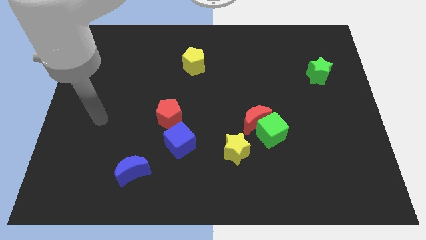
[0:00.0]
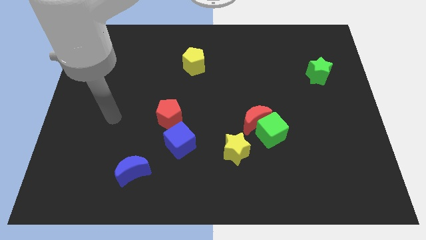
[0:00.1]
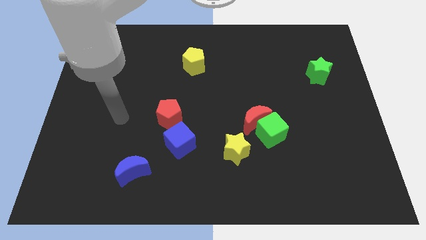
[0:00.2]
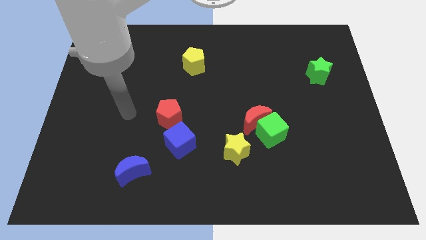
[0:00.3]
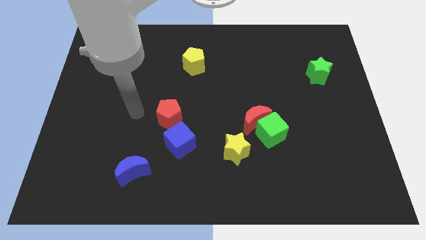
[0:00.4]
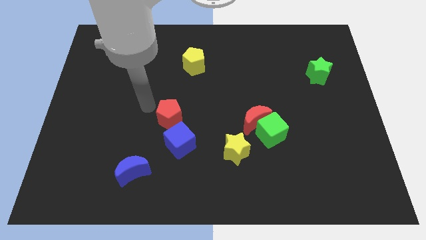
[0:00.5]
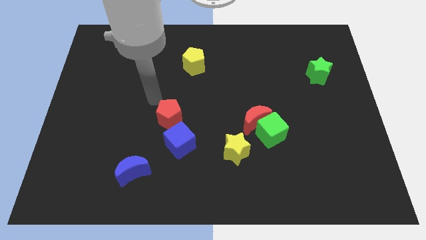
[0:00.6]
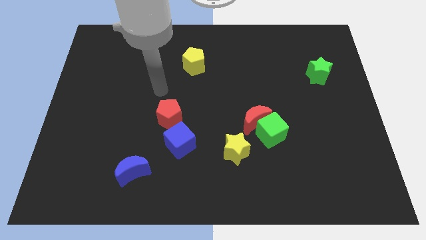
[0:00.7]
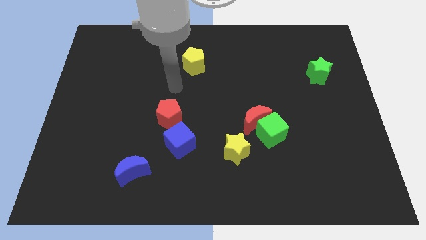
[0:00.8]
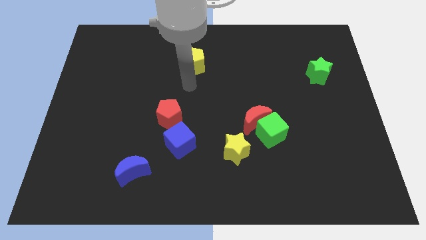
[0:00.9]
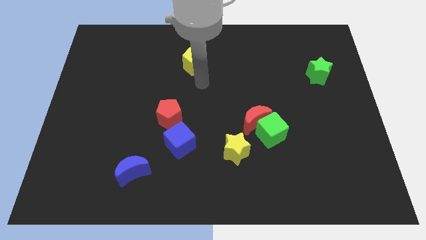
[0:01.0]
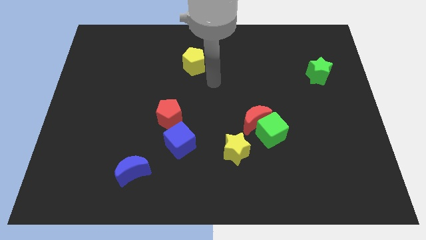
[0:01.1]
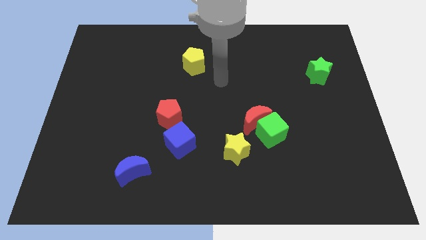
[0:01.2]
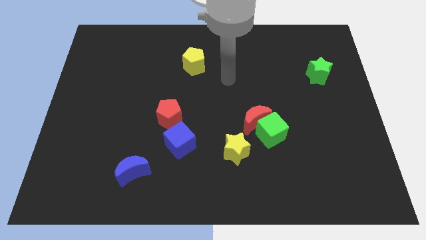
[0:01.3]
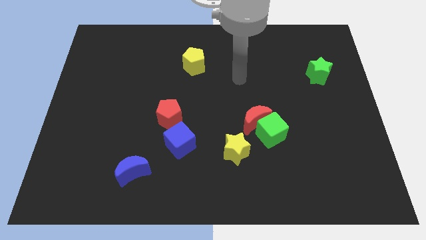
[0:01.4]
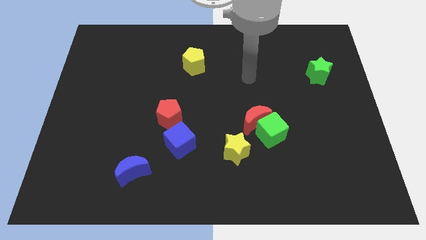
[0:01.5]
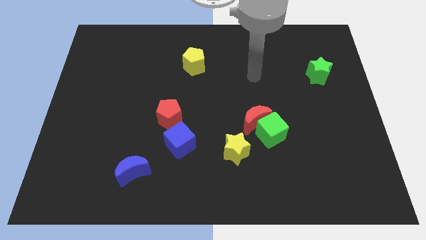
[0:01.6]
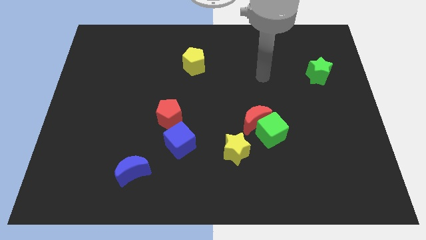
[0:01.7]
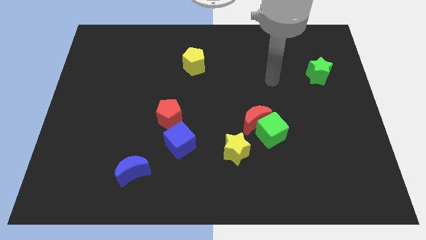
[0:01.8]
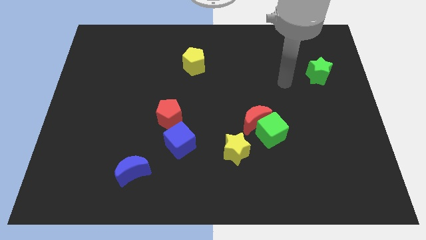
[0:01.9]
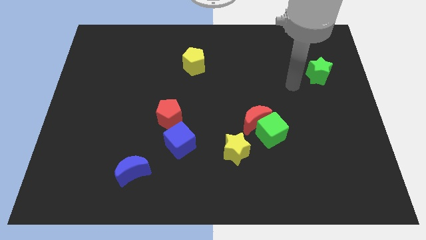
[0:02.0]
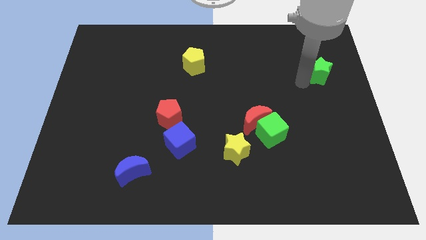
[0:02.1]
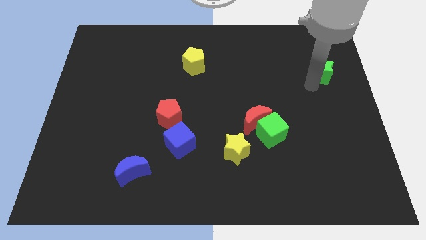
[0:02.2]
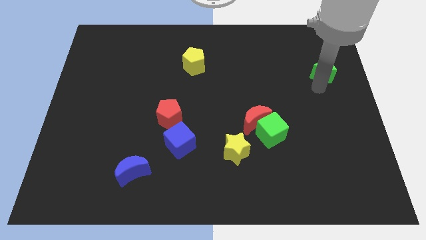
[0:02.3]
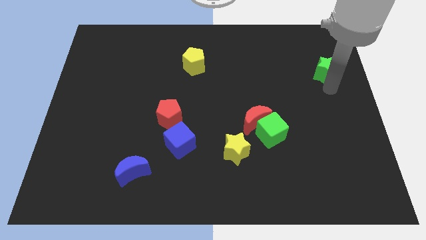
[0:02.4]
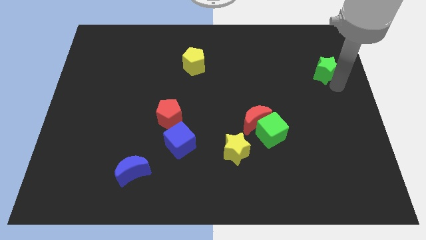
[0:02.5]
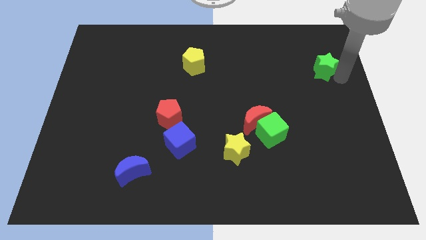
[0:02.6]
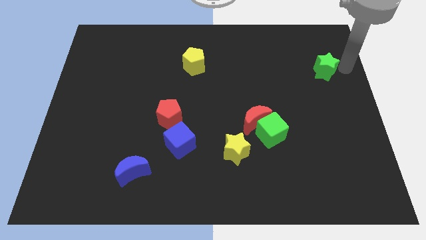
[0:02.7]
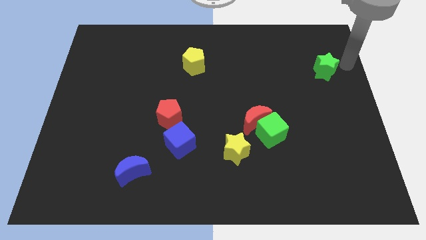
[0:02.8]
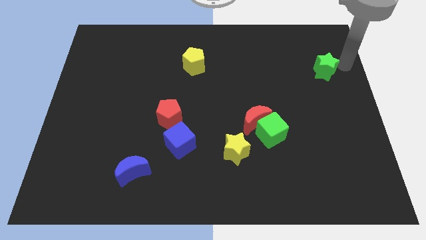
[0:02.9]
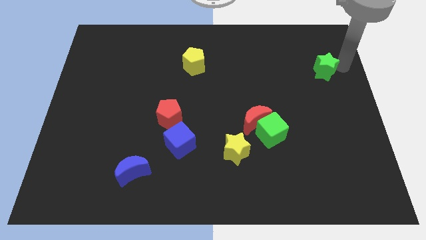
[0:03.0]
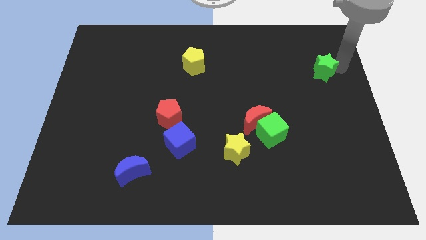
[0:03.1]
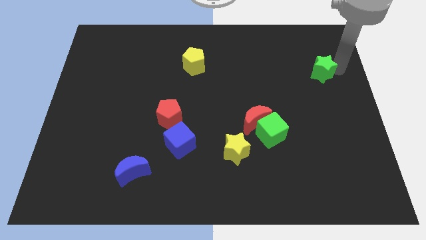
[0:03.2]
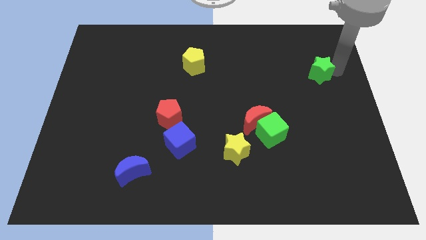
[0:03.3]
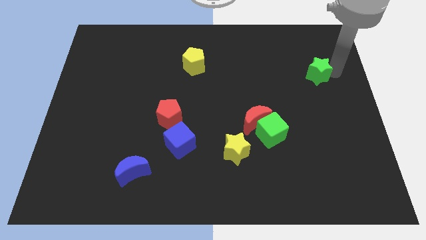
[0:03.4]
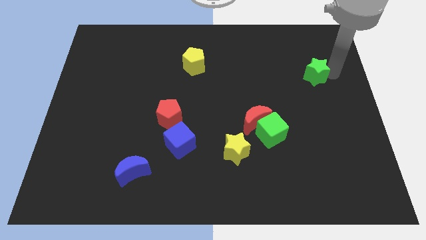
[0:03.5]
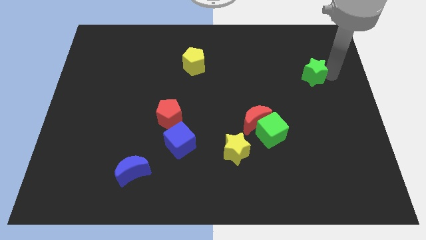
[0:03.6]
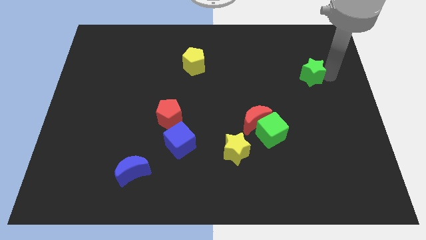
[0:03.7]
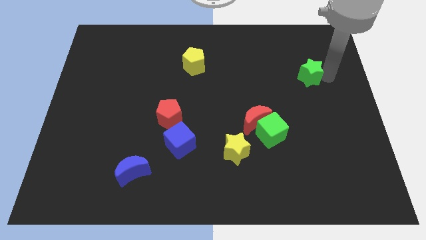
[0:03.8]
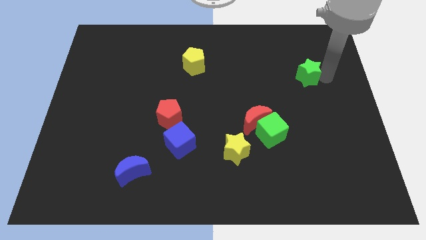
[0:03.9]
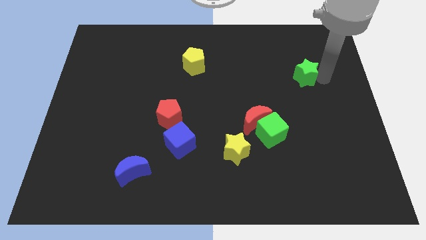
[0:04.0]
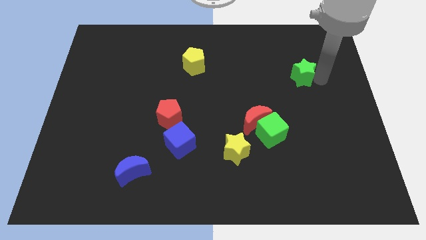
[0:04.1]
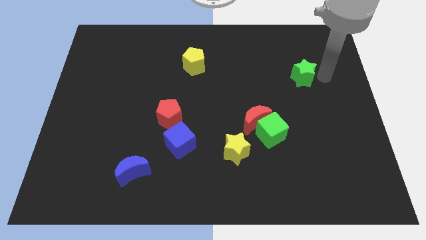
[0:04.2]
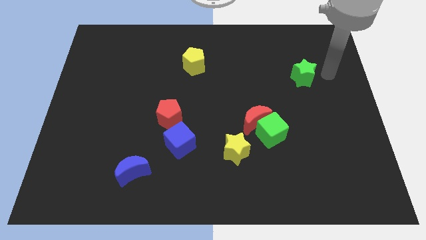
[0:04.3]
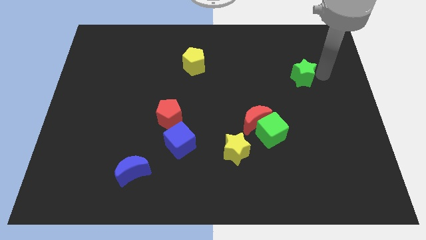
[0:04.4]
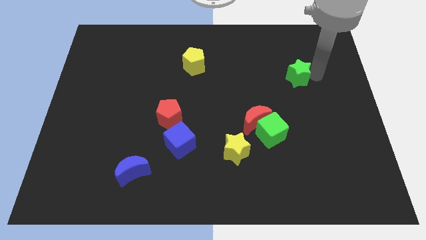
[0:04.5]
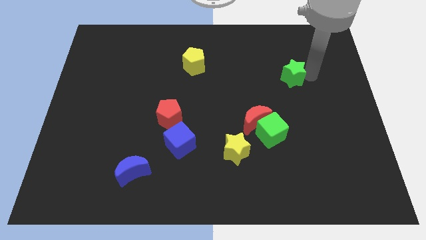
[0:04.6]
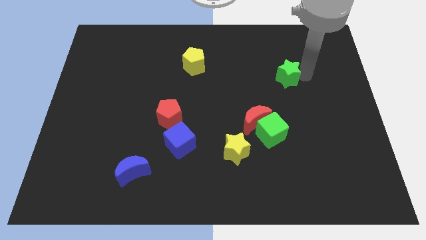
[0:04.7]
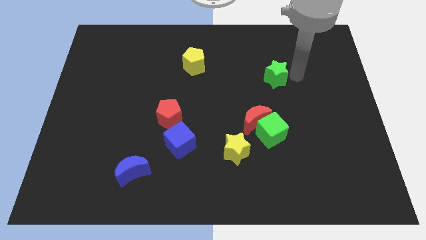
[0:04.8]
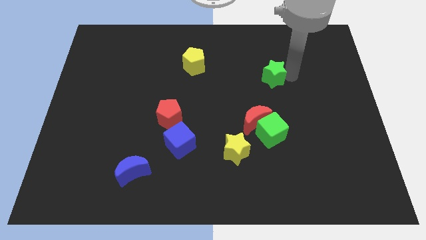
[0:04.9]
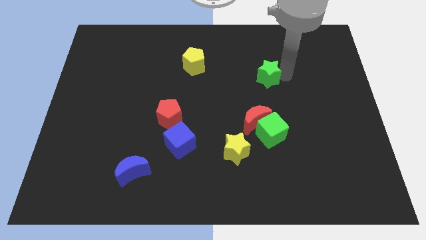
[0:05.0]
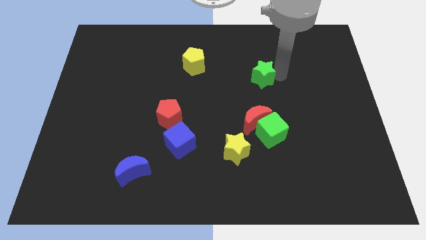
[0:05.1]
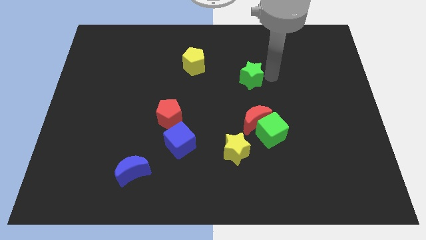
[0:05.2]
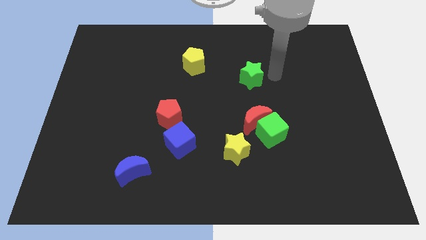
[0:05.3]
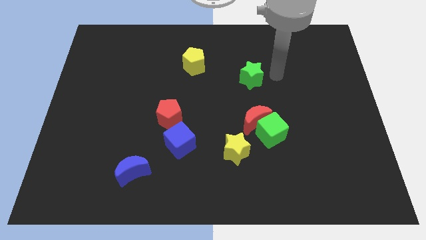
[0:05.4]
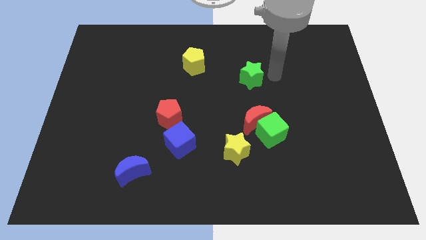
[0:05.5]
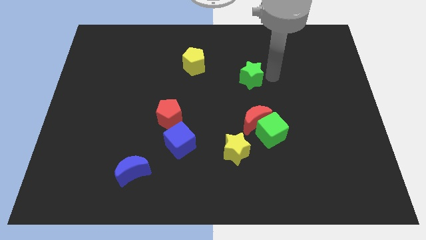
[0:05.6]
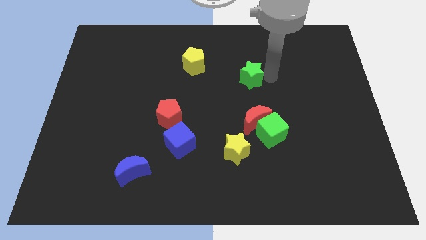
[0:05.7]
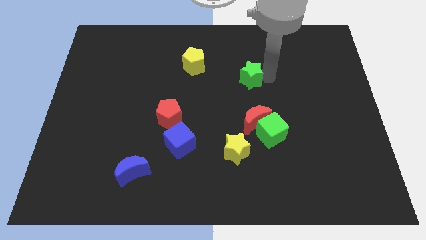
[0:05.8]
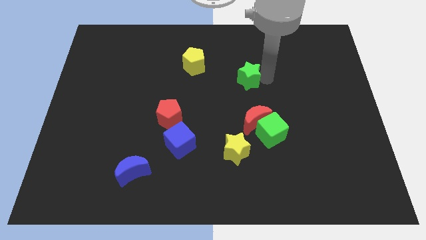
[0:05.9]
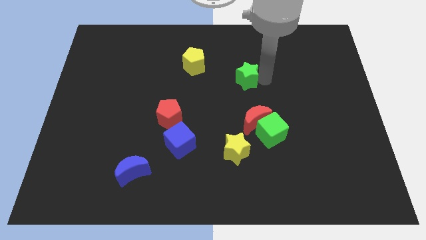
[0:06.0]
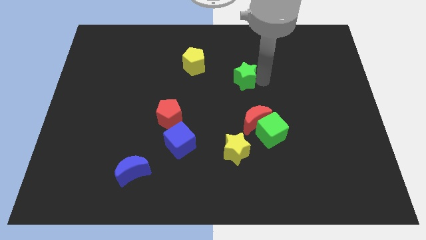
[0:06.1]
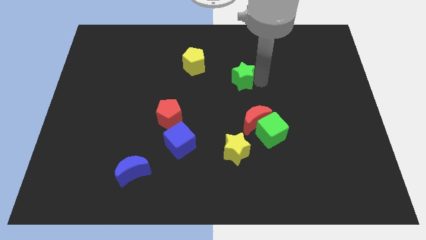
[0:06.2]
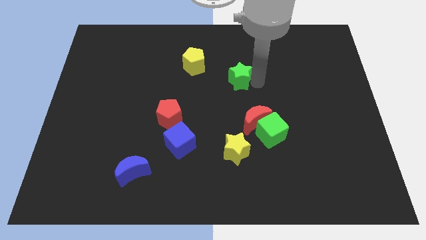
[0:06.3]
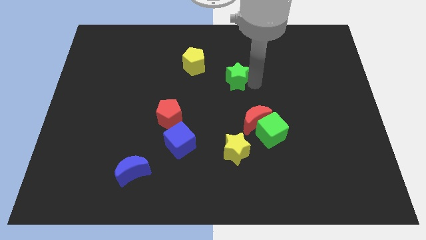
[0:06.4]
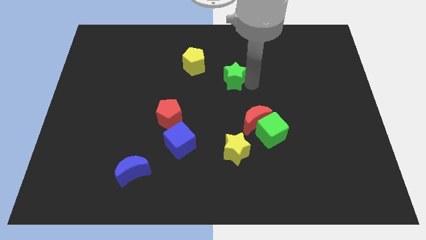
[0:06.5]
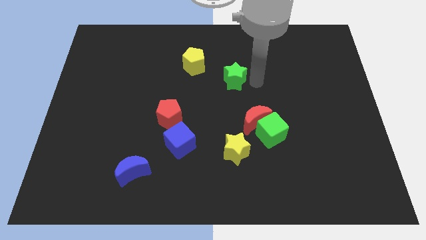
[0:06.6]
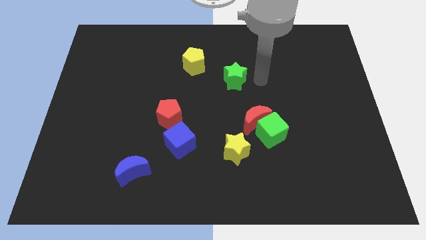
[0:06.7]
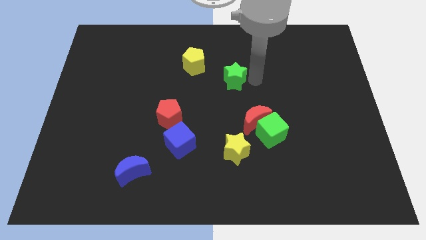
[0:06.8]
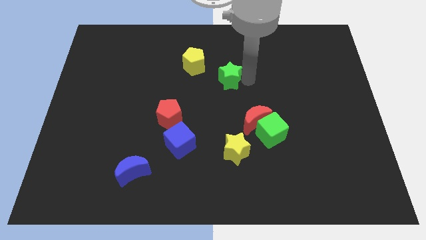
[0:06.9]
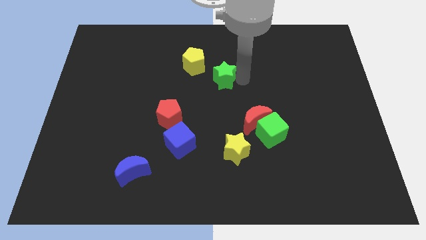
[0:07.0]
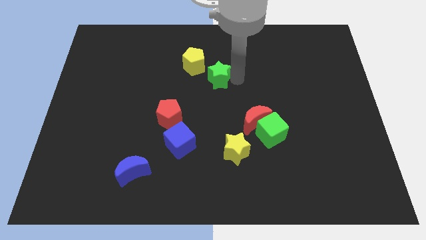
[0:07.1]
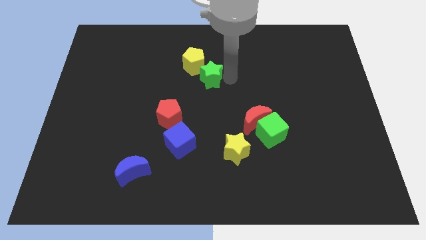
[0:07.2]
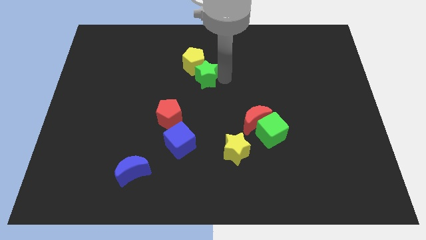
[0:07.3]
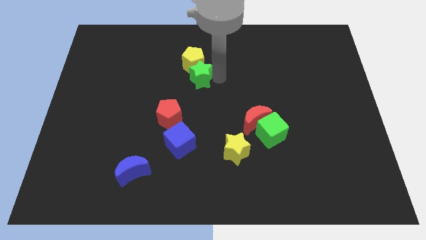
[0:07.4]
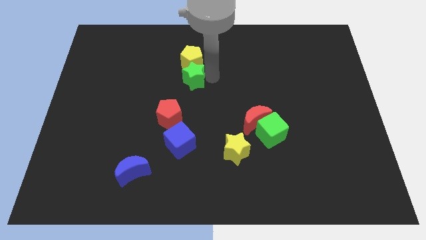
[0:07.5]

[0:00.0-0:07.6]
slide the green star to the top side of the red pentagon
